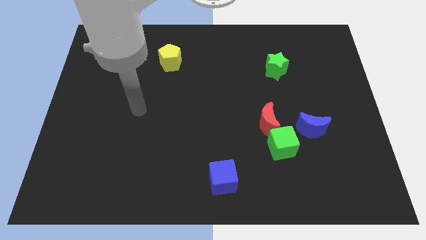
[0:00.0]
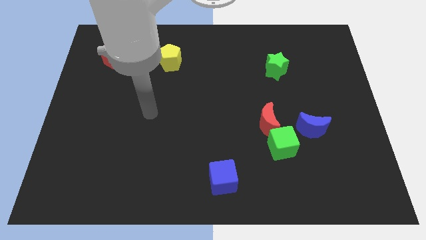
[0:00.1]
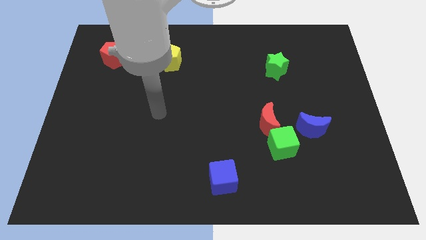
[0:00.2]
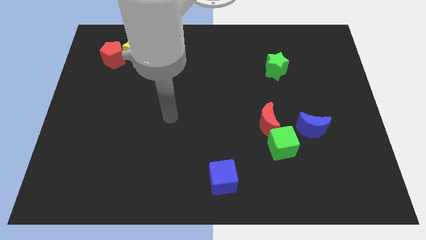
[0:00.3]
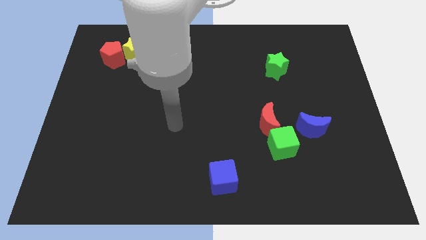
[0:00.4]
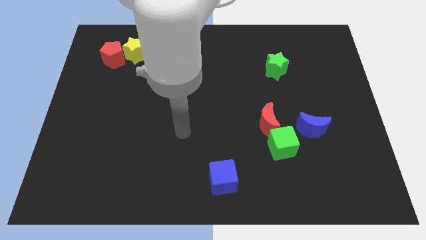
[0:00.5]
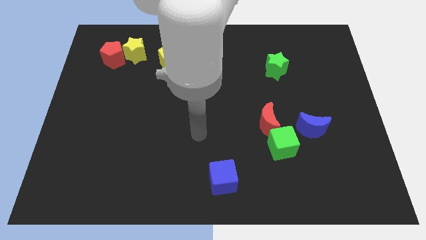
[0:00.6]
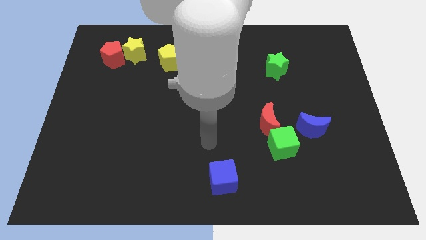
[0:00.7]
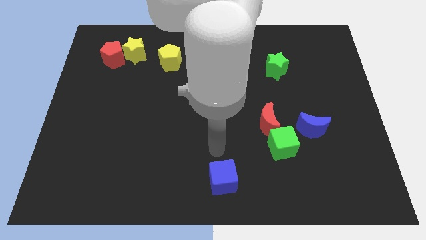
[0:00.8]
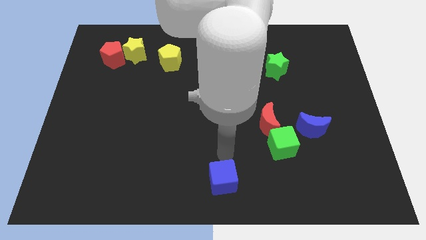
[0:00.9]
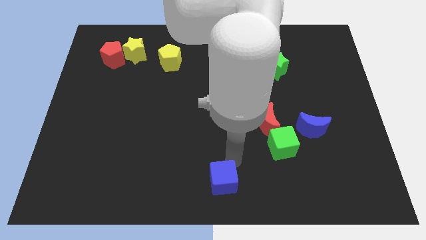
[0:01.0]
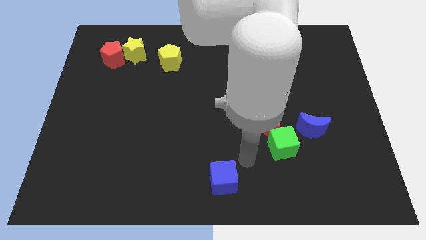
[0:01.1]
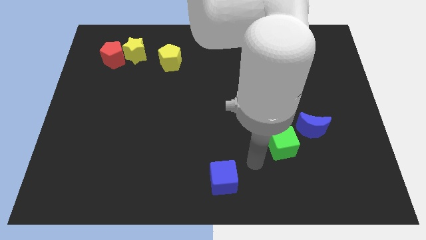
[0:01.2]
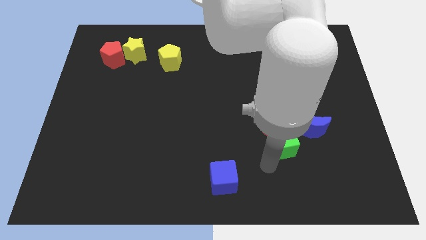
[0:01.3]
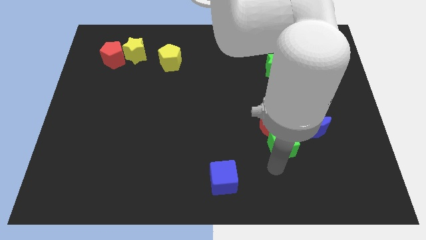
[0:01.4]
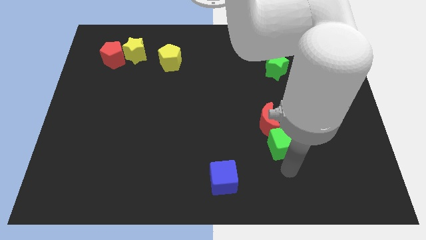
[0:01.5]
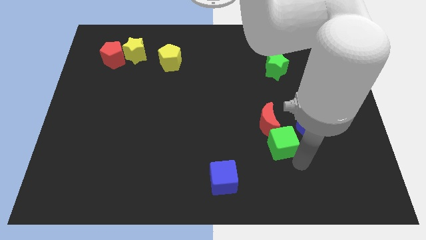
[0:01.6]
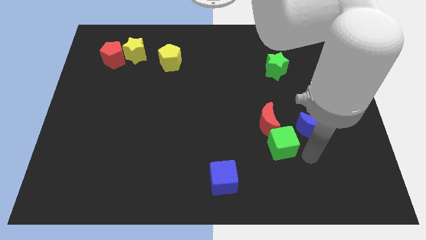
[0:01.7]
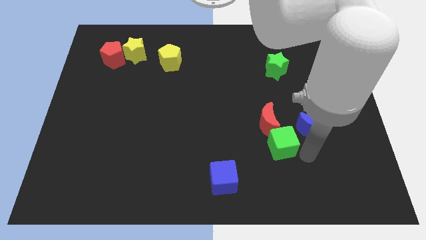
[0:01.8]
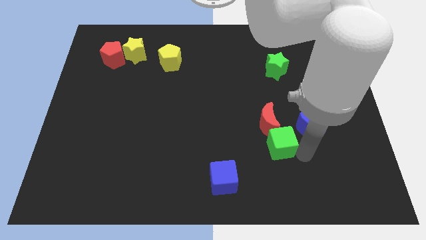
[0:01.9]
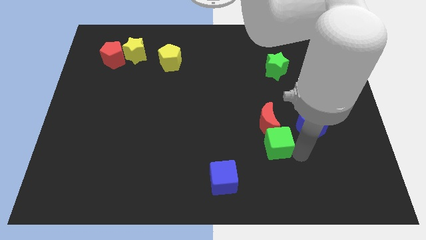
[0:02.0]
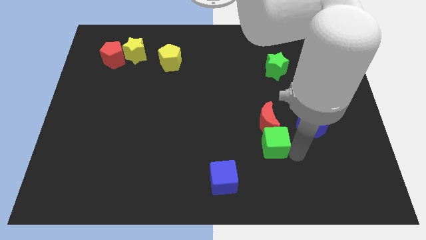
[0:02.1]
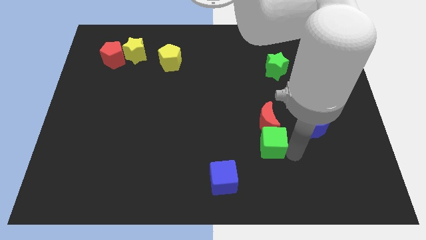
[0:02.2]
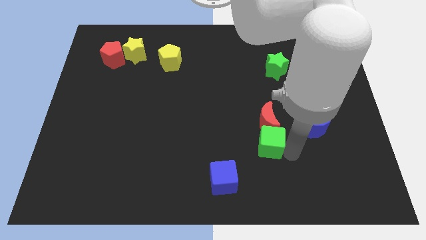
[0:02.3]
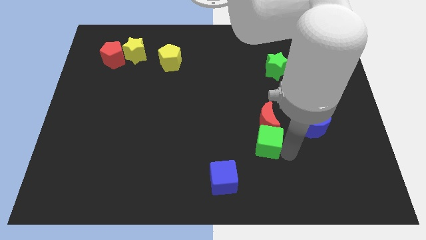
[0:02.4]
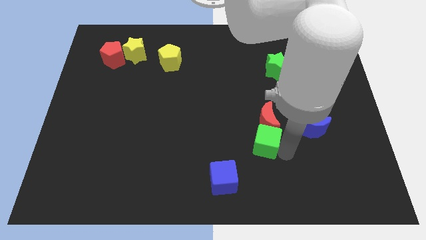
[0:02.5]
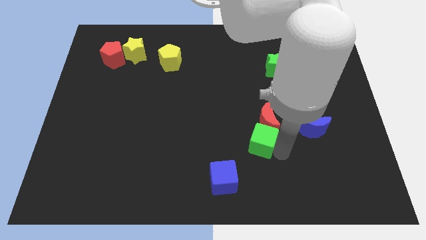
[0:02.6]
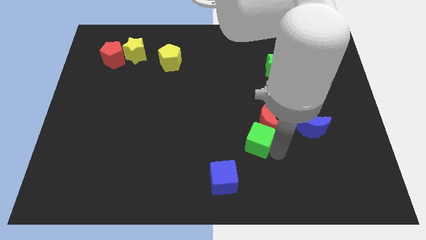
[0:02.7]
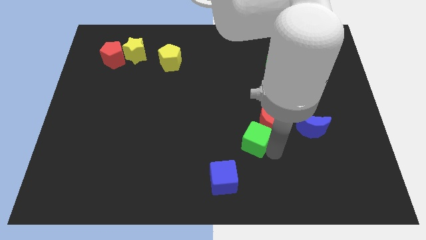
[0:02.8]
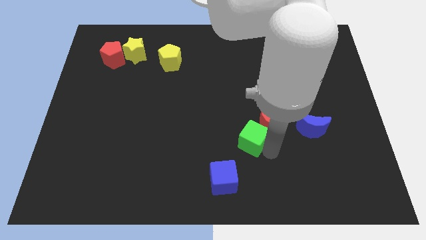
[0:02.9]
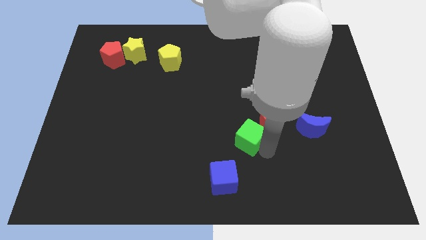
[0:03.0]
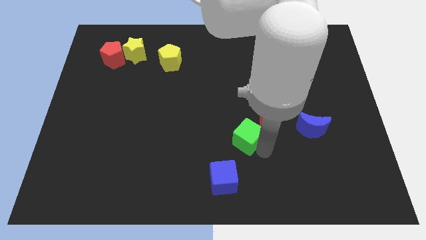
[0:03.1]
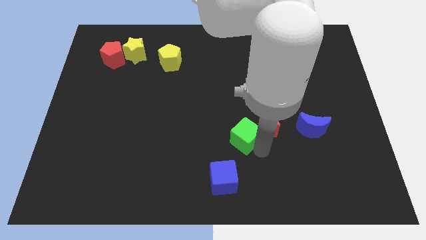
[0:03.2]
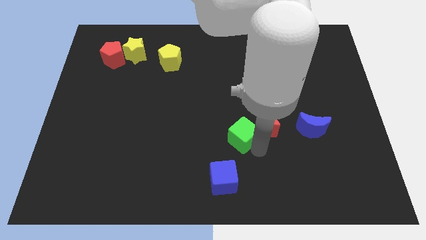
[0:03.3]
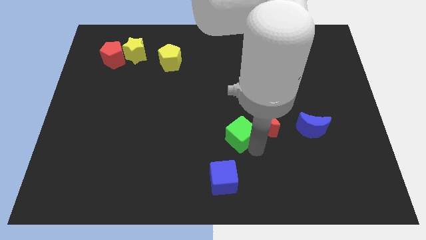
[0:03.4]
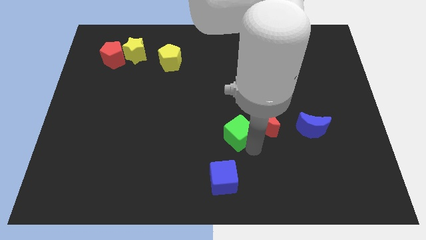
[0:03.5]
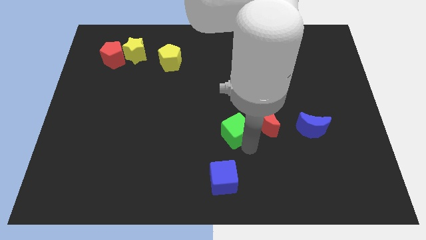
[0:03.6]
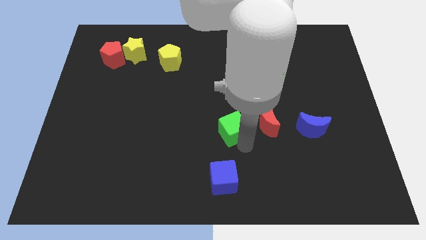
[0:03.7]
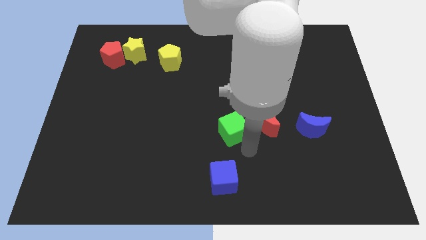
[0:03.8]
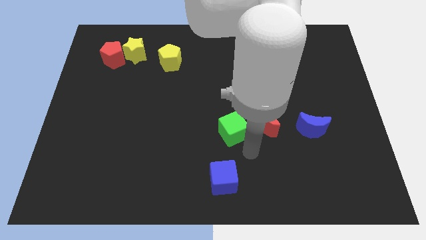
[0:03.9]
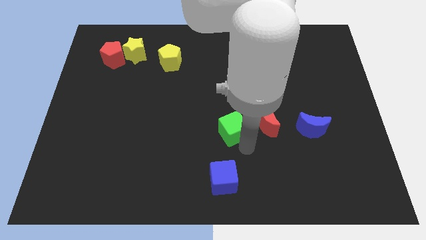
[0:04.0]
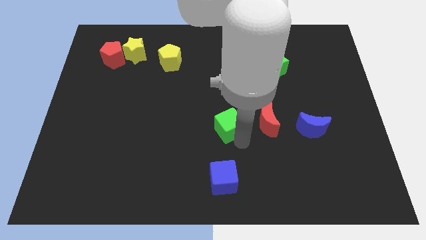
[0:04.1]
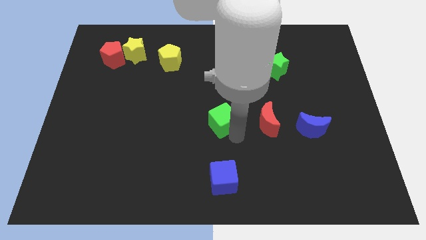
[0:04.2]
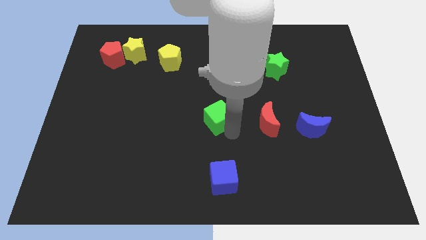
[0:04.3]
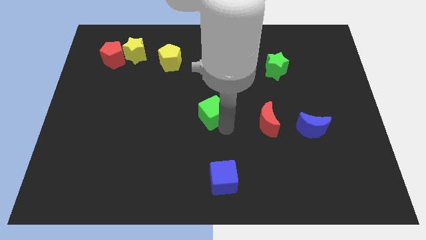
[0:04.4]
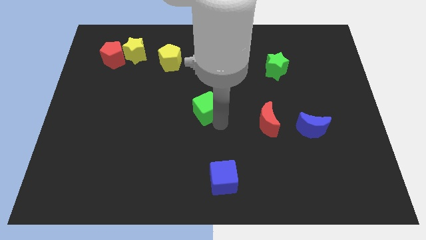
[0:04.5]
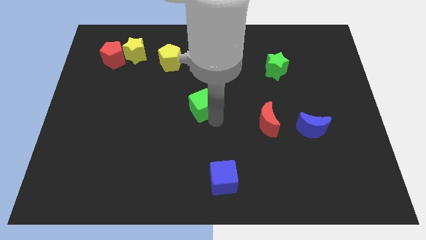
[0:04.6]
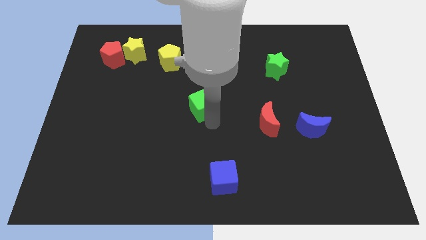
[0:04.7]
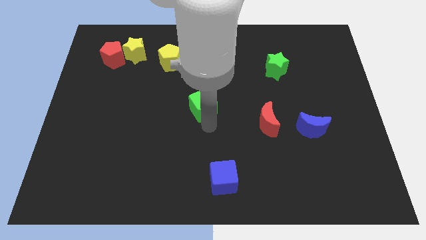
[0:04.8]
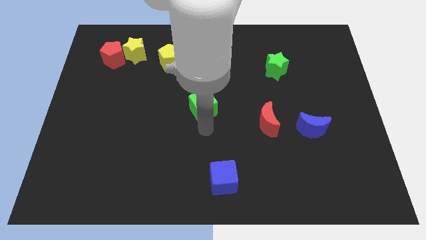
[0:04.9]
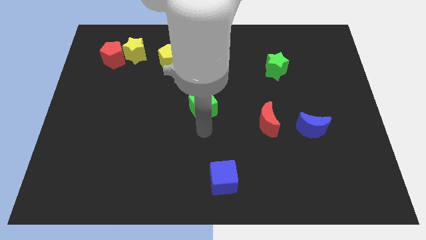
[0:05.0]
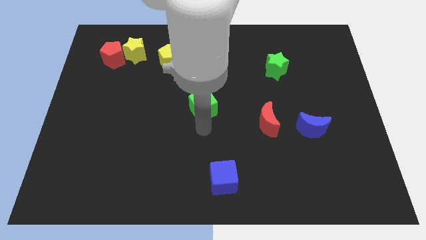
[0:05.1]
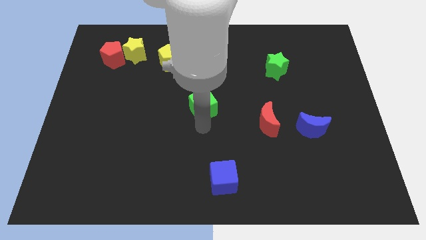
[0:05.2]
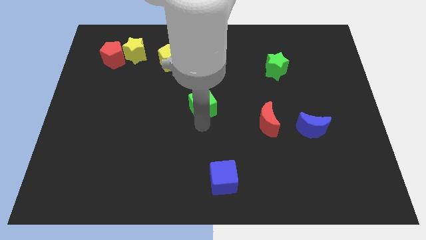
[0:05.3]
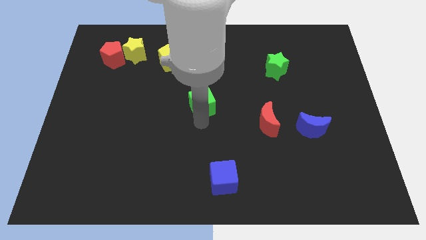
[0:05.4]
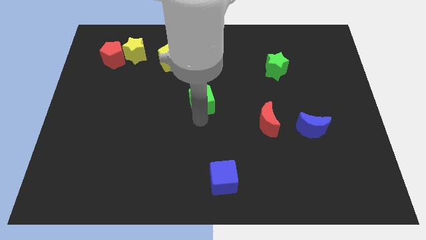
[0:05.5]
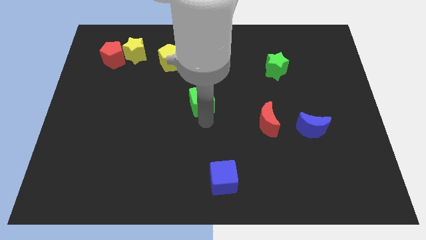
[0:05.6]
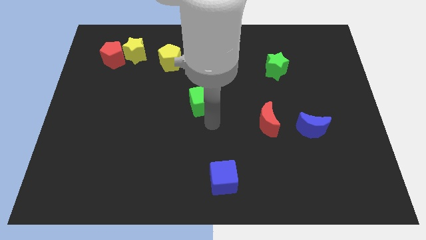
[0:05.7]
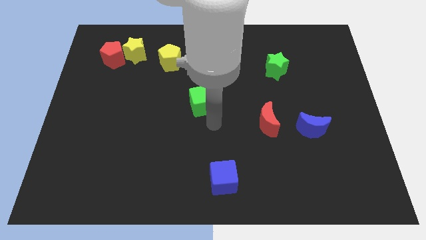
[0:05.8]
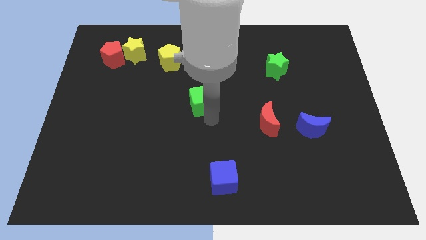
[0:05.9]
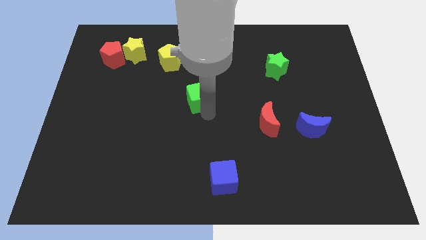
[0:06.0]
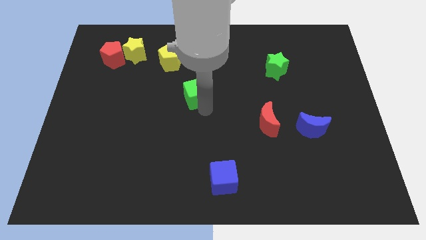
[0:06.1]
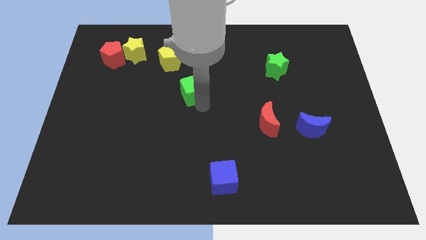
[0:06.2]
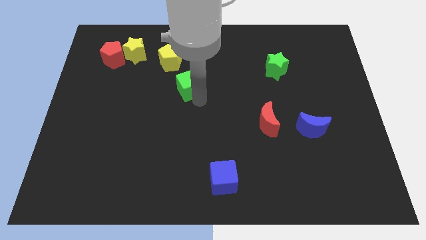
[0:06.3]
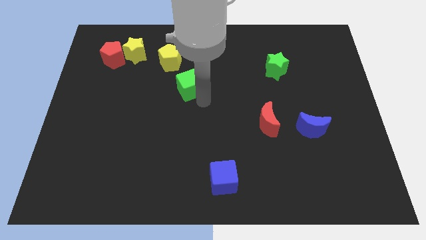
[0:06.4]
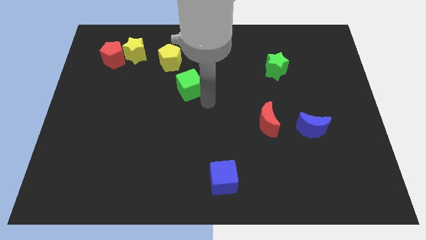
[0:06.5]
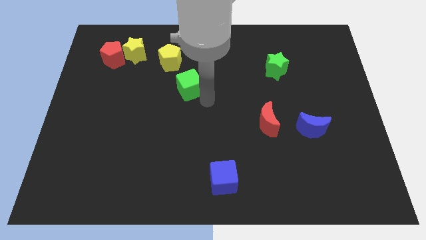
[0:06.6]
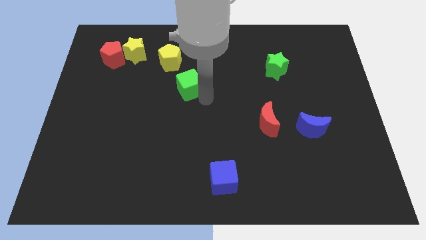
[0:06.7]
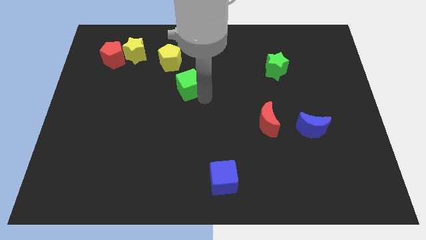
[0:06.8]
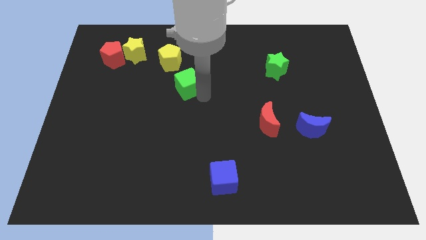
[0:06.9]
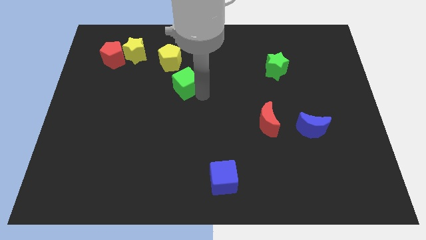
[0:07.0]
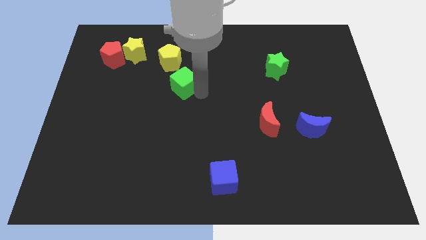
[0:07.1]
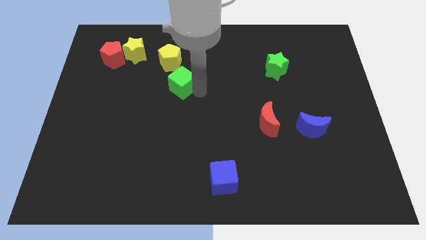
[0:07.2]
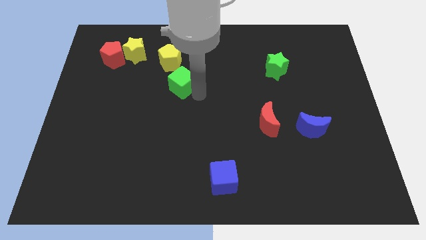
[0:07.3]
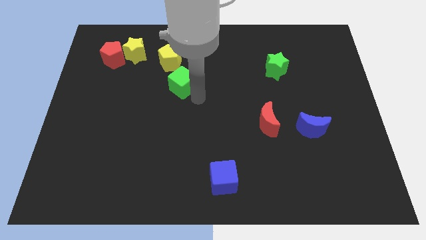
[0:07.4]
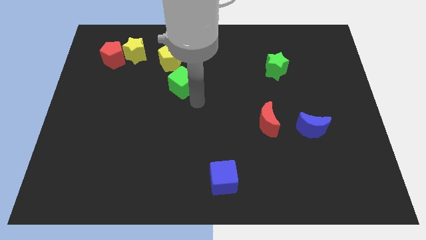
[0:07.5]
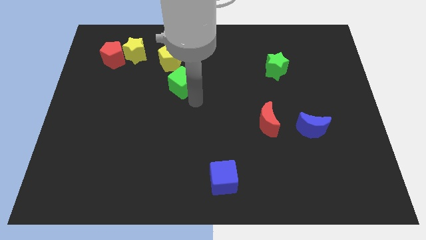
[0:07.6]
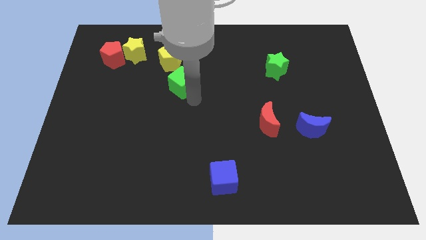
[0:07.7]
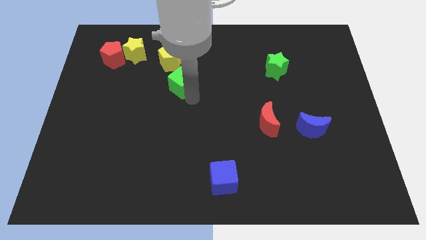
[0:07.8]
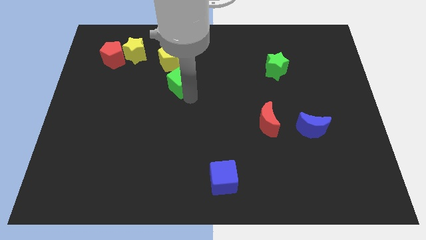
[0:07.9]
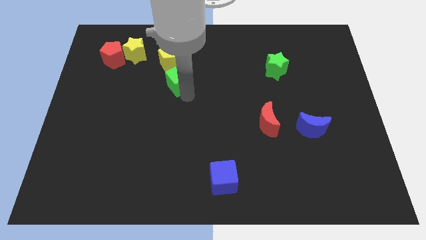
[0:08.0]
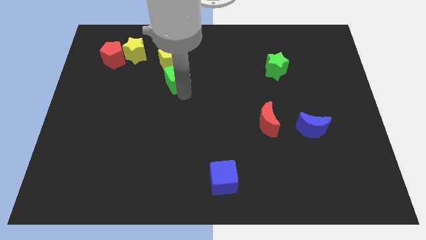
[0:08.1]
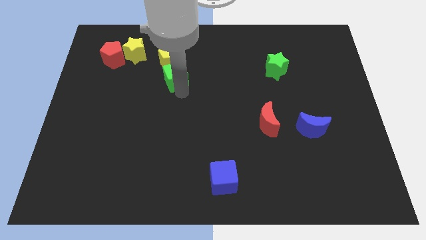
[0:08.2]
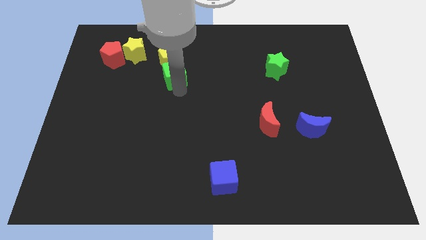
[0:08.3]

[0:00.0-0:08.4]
move the green cube close to the yellow pentagon
